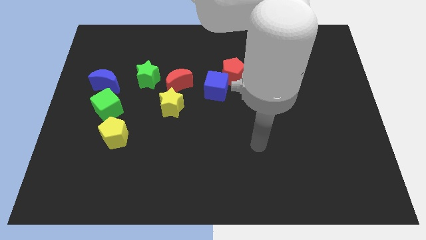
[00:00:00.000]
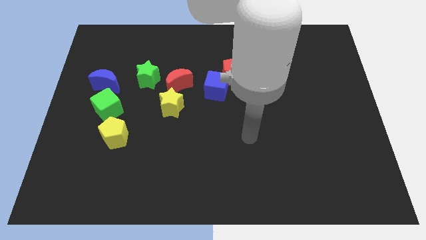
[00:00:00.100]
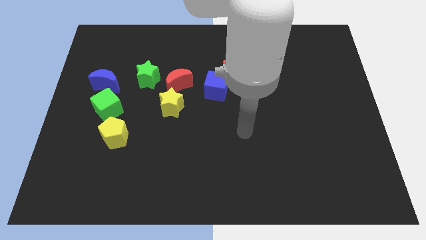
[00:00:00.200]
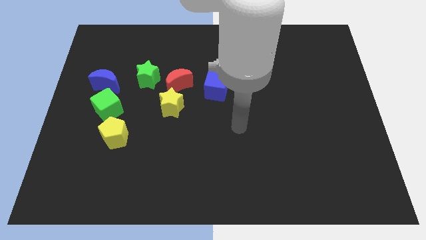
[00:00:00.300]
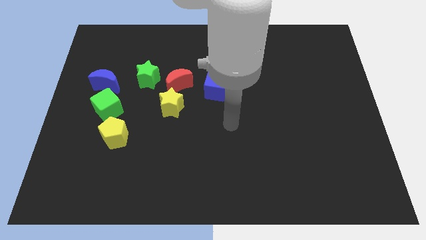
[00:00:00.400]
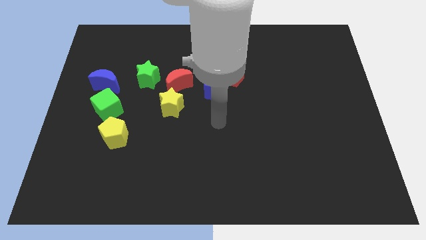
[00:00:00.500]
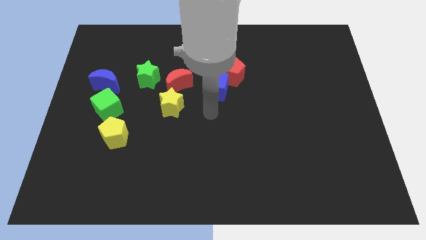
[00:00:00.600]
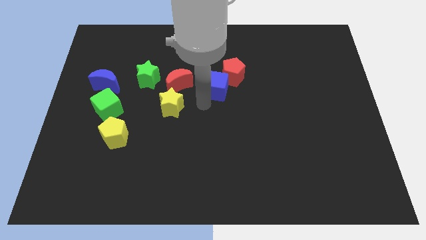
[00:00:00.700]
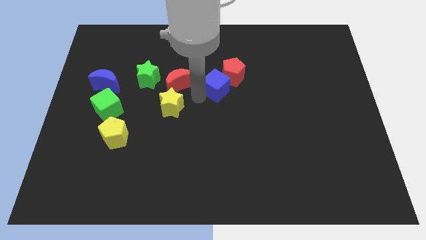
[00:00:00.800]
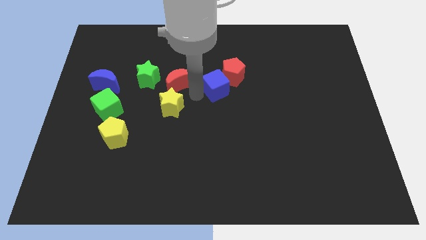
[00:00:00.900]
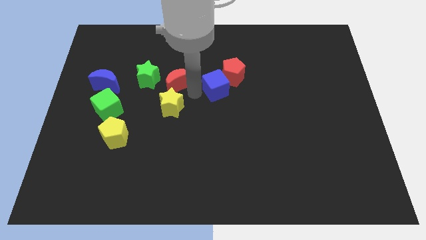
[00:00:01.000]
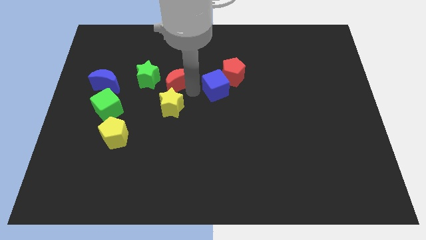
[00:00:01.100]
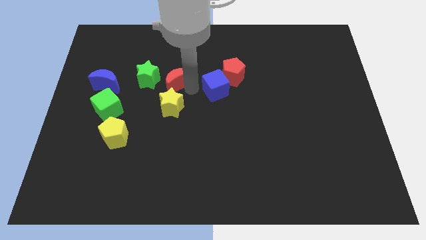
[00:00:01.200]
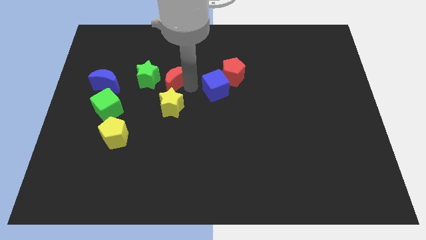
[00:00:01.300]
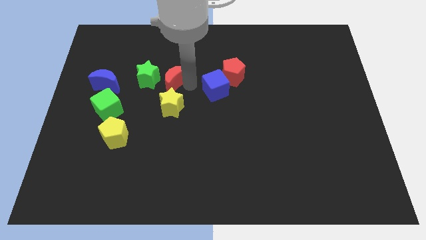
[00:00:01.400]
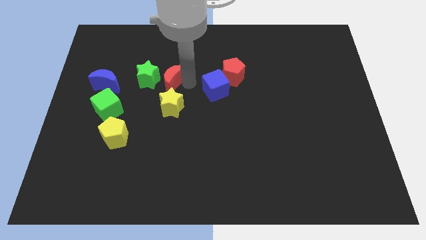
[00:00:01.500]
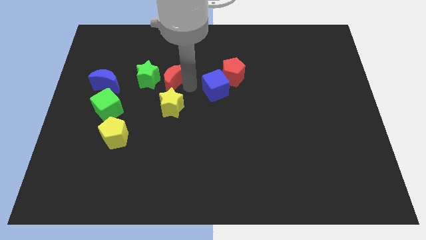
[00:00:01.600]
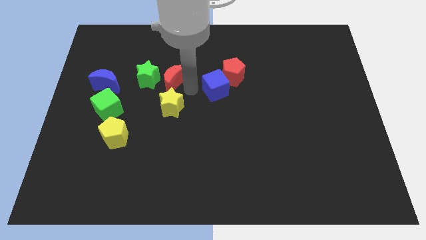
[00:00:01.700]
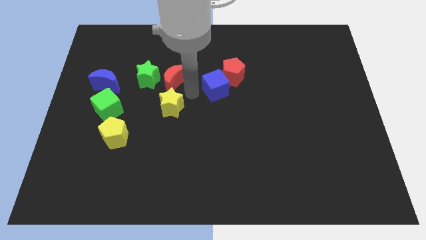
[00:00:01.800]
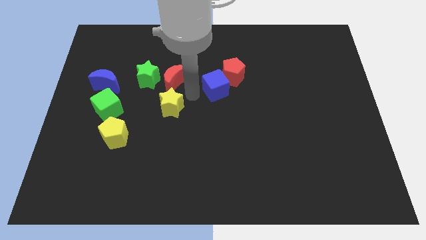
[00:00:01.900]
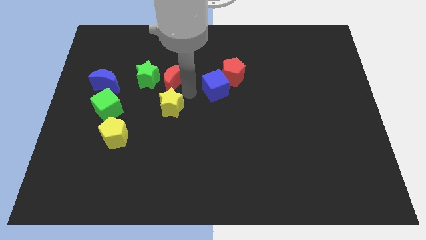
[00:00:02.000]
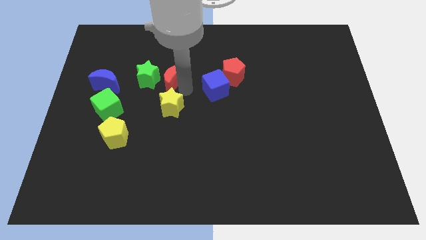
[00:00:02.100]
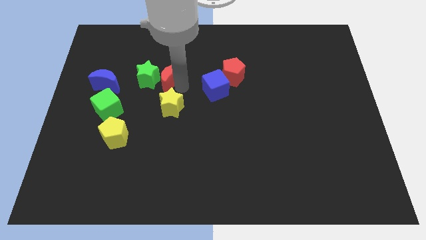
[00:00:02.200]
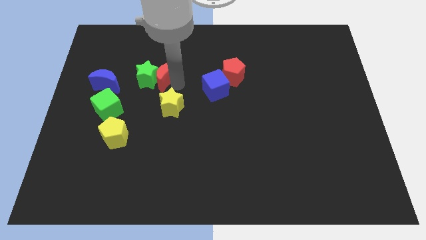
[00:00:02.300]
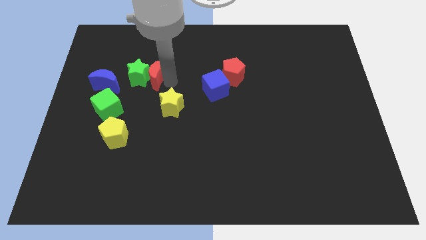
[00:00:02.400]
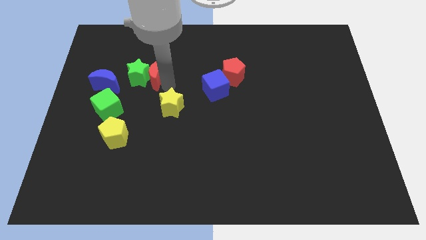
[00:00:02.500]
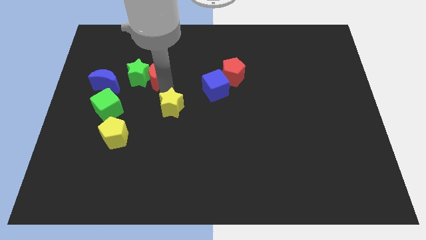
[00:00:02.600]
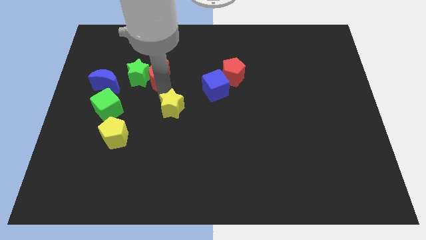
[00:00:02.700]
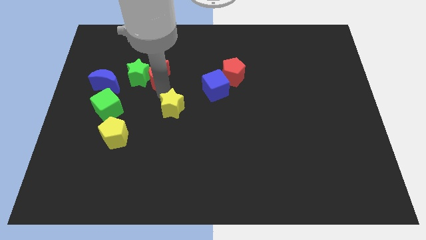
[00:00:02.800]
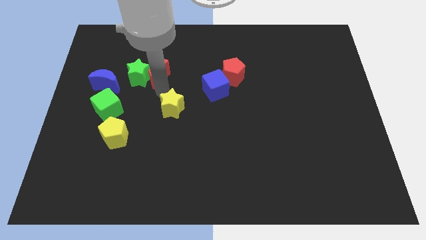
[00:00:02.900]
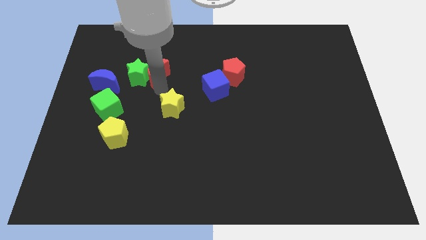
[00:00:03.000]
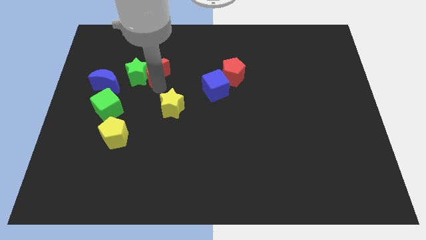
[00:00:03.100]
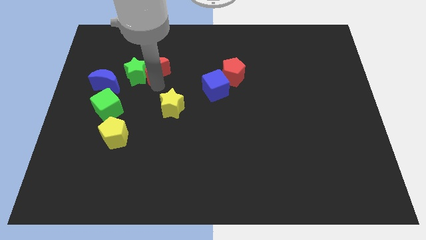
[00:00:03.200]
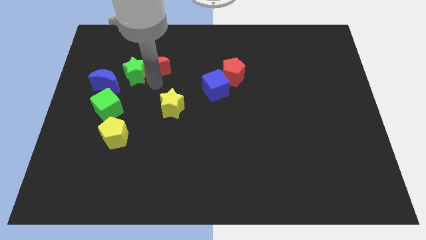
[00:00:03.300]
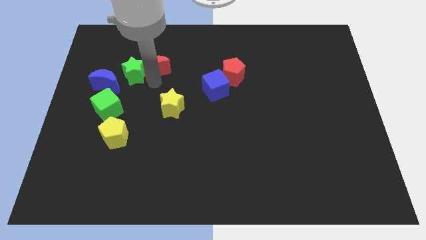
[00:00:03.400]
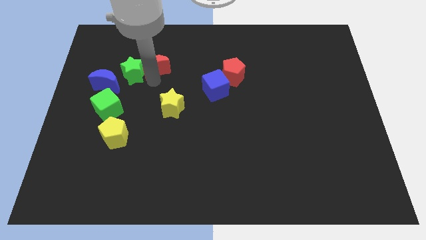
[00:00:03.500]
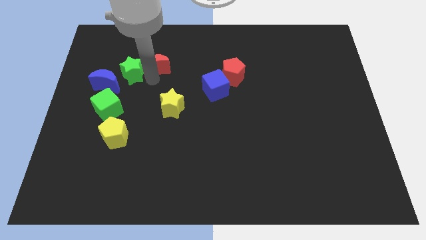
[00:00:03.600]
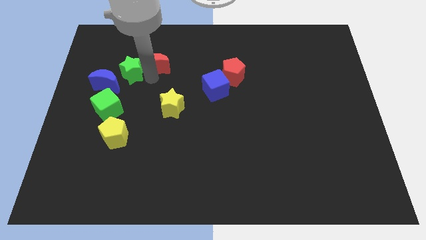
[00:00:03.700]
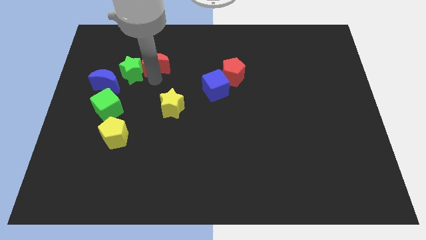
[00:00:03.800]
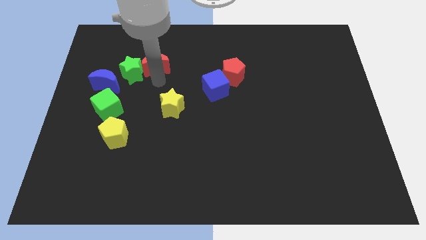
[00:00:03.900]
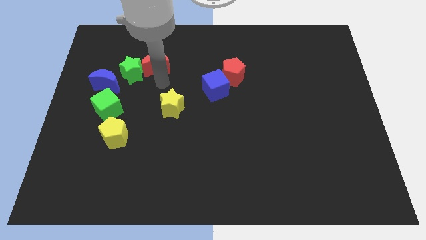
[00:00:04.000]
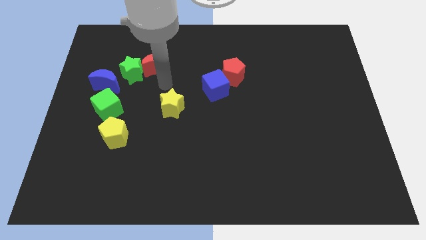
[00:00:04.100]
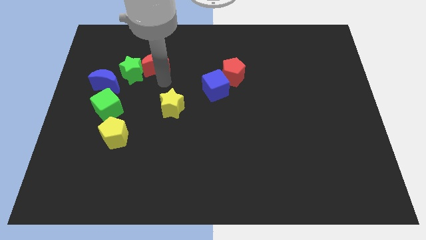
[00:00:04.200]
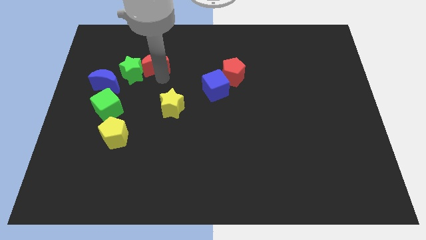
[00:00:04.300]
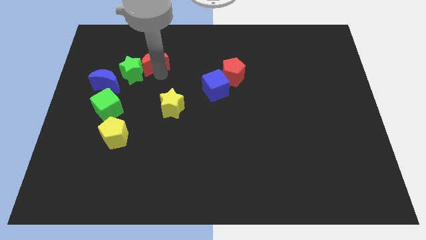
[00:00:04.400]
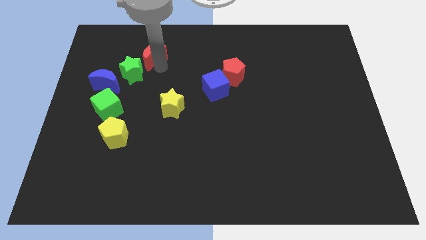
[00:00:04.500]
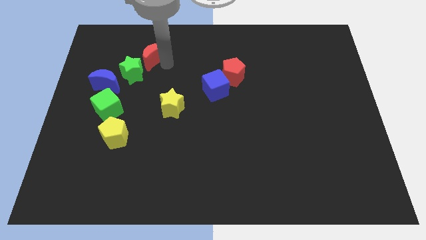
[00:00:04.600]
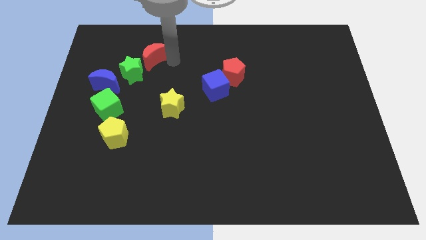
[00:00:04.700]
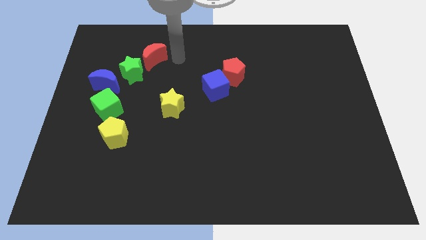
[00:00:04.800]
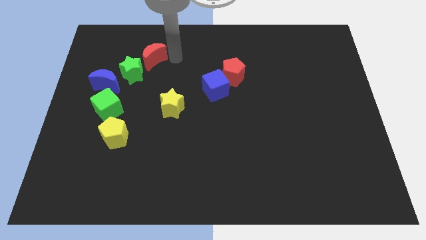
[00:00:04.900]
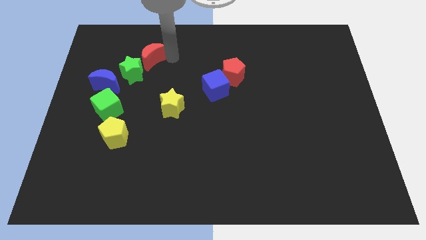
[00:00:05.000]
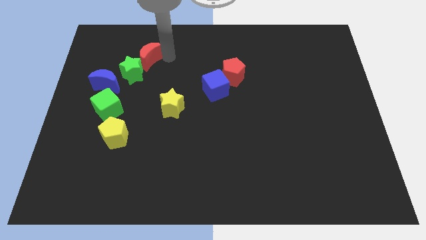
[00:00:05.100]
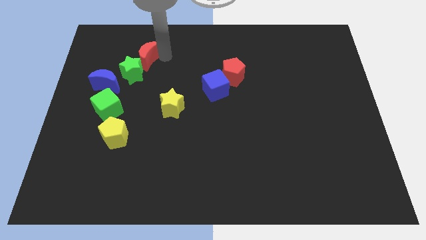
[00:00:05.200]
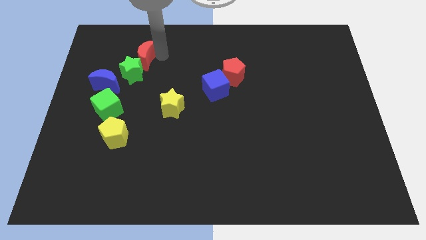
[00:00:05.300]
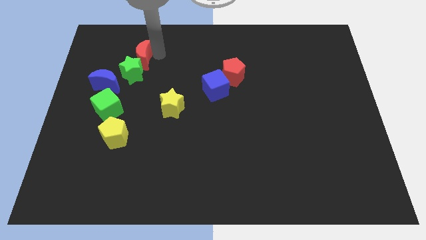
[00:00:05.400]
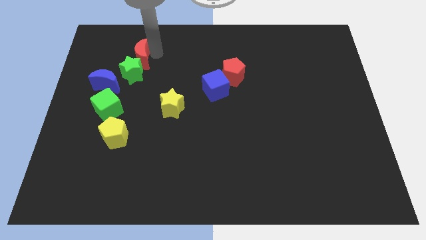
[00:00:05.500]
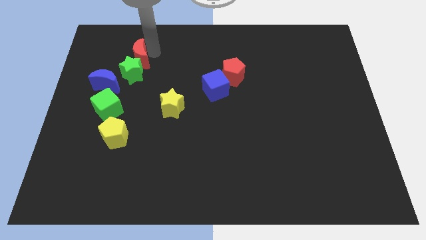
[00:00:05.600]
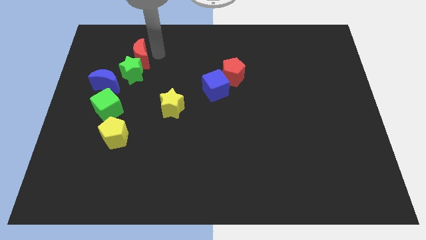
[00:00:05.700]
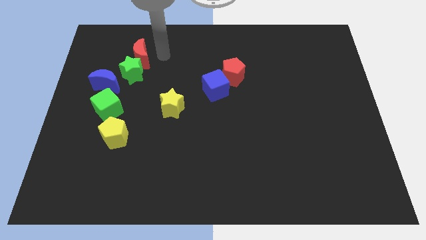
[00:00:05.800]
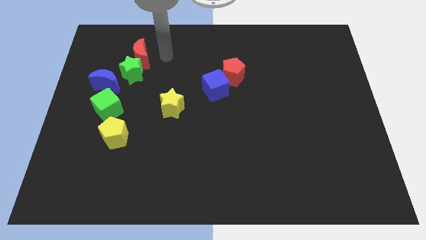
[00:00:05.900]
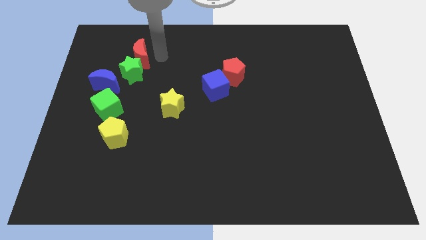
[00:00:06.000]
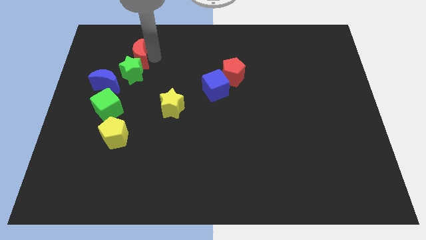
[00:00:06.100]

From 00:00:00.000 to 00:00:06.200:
push the red moon to the top left side of the green star
